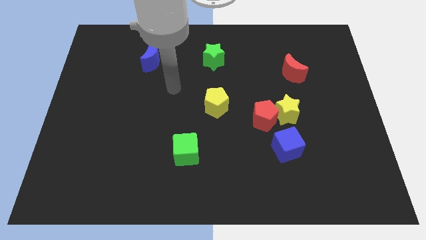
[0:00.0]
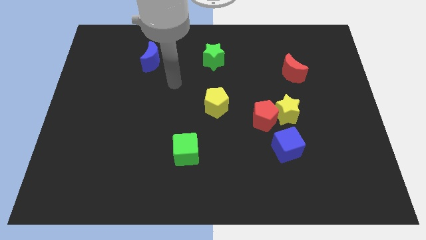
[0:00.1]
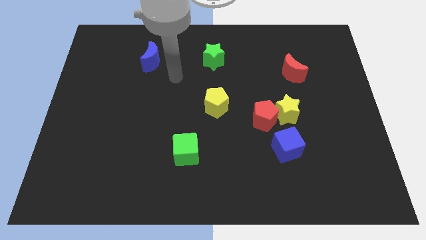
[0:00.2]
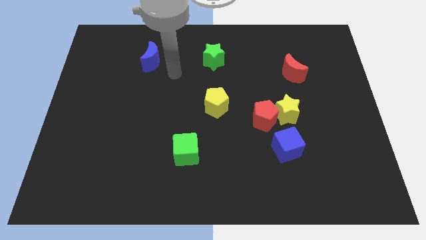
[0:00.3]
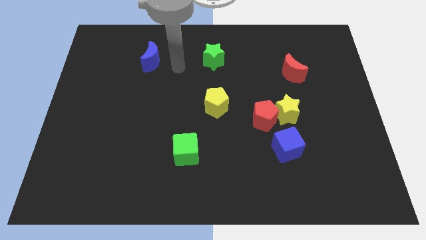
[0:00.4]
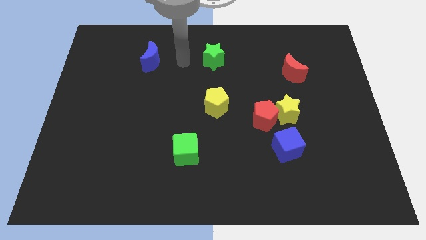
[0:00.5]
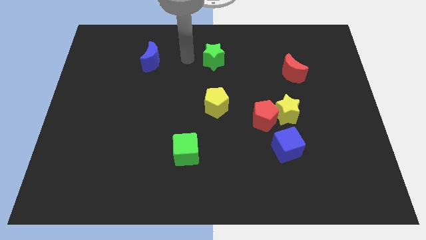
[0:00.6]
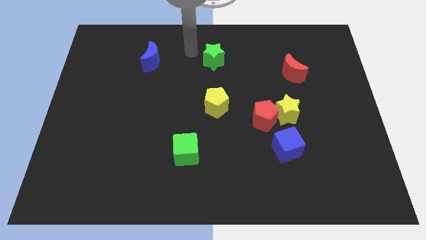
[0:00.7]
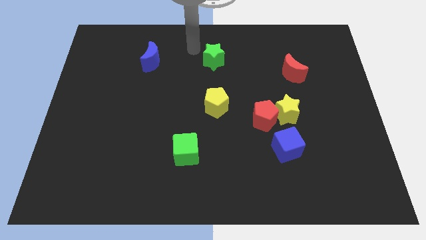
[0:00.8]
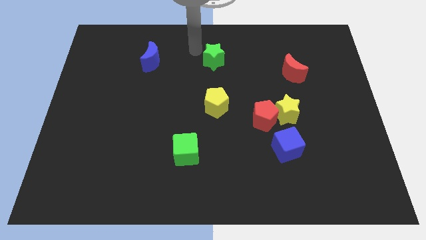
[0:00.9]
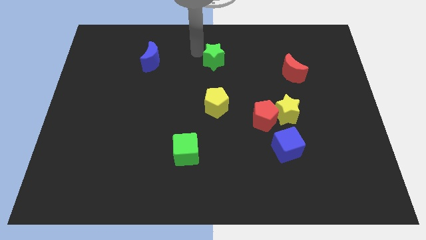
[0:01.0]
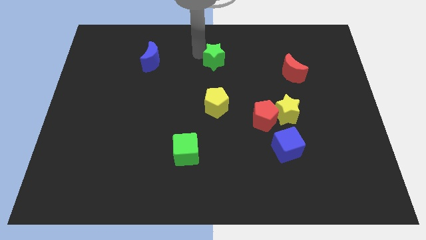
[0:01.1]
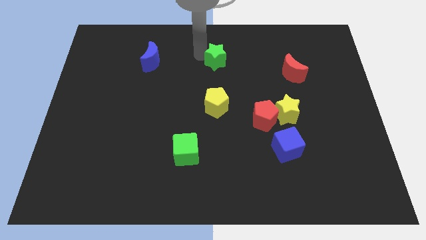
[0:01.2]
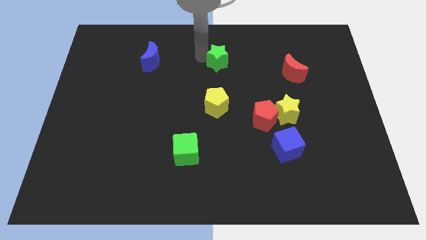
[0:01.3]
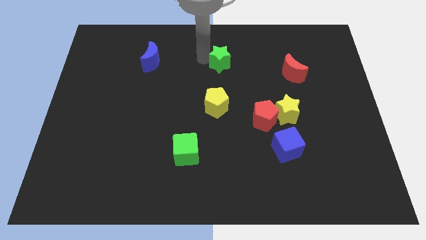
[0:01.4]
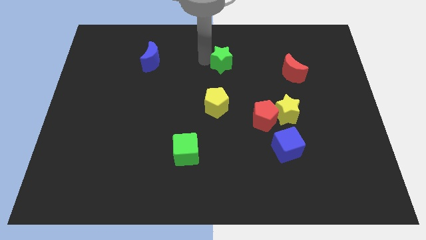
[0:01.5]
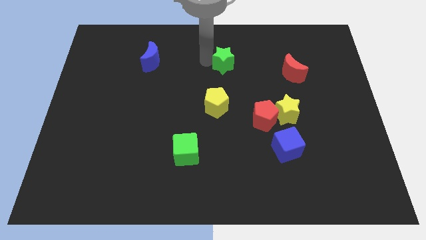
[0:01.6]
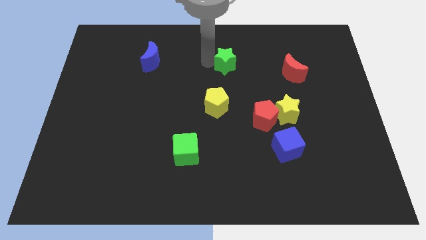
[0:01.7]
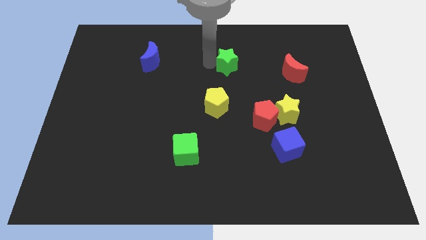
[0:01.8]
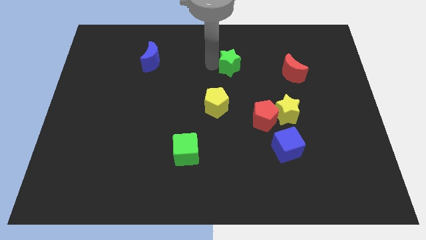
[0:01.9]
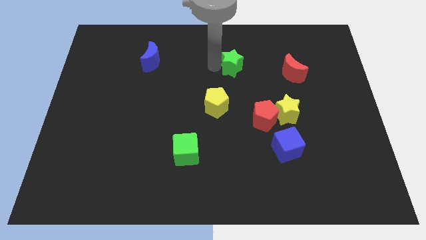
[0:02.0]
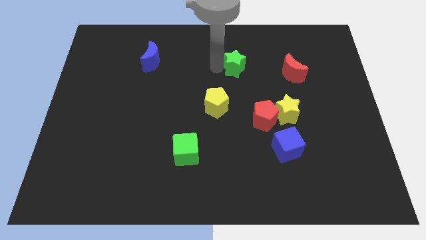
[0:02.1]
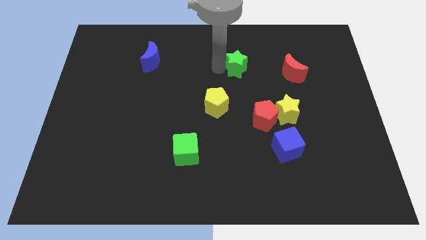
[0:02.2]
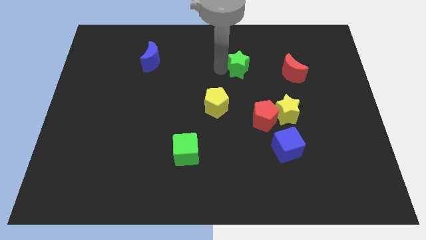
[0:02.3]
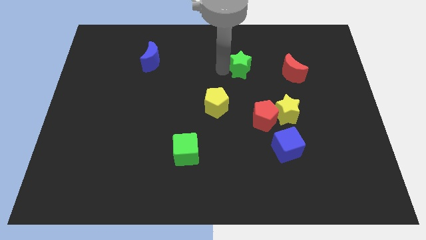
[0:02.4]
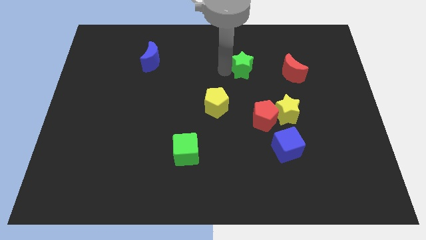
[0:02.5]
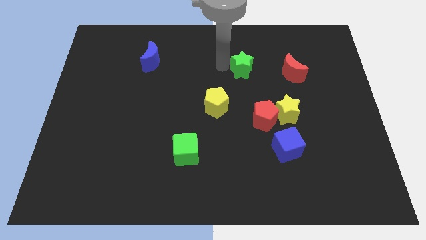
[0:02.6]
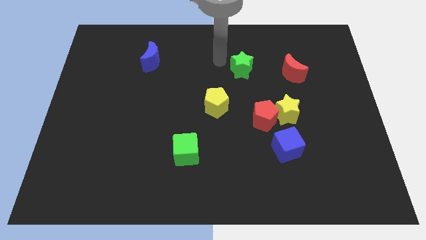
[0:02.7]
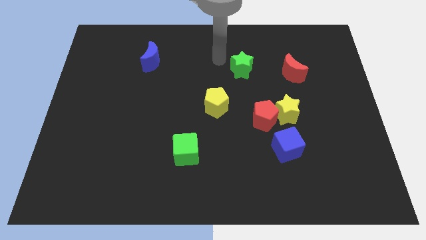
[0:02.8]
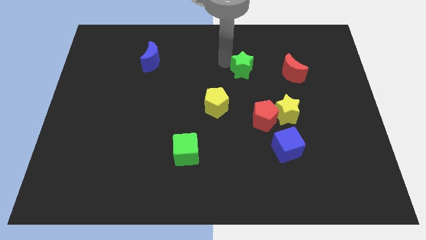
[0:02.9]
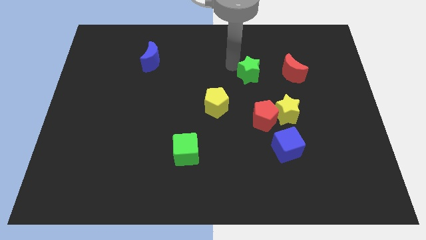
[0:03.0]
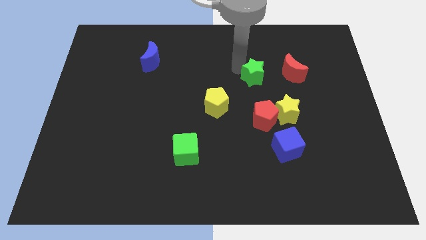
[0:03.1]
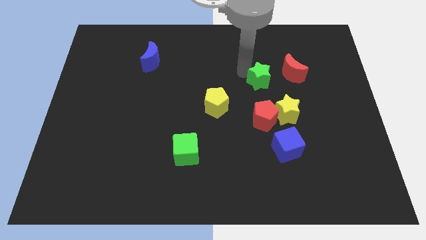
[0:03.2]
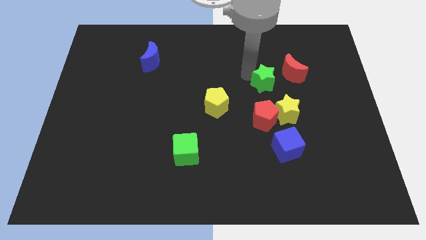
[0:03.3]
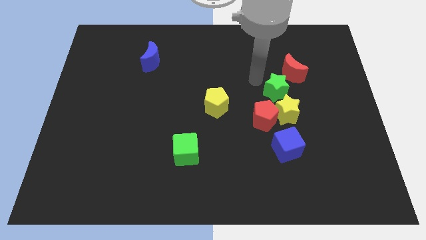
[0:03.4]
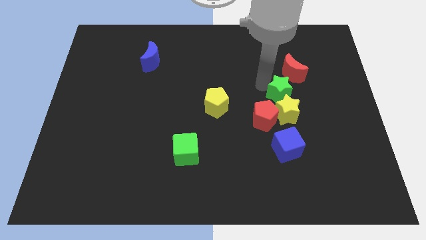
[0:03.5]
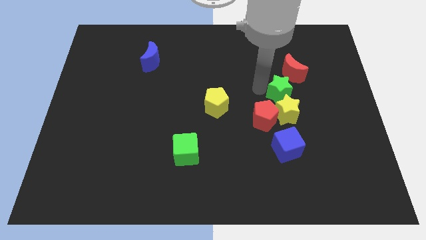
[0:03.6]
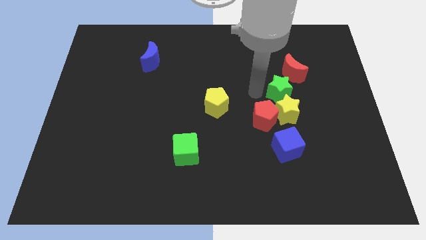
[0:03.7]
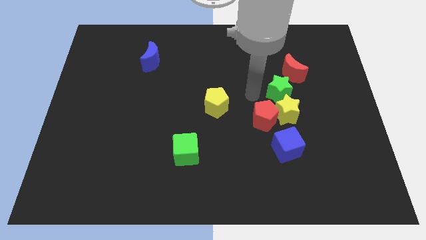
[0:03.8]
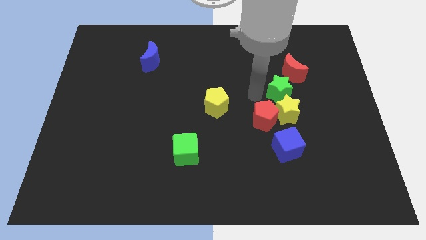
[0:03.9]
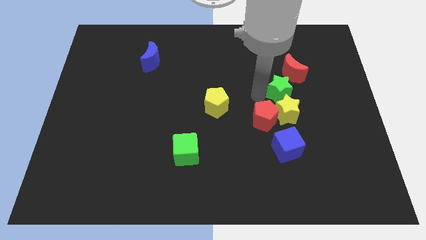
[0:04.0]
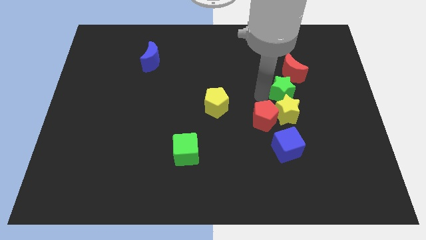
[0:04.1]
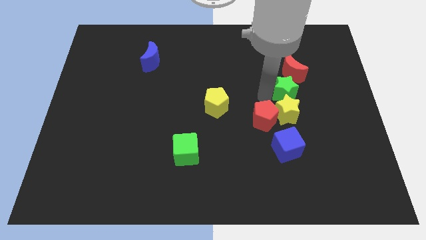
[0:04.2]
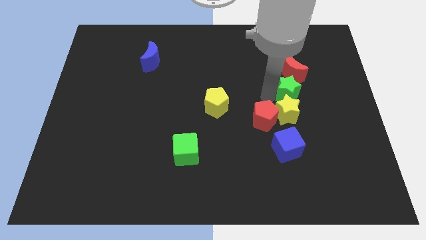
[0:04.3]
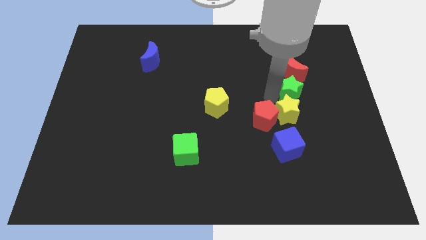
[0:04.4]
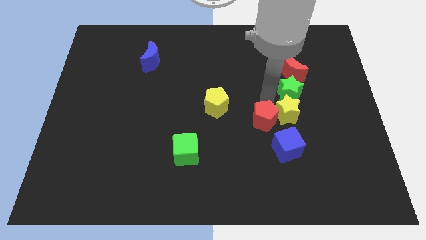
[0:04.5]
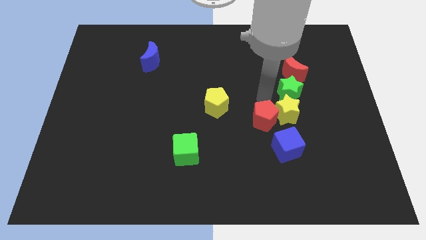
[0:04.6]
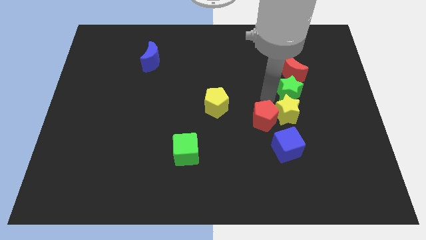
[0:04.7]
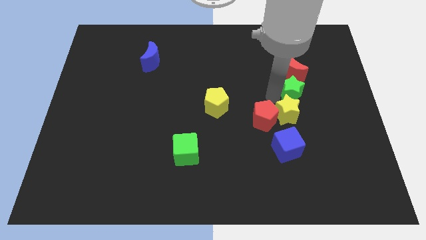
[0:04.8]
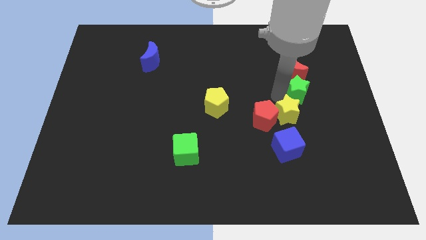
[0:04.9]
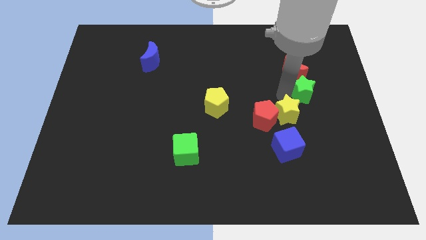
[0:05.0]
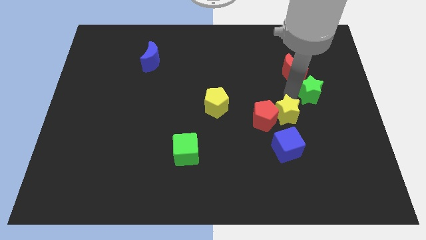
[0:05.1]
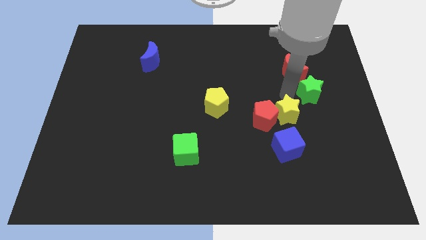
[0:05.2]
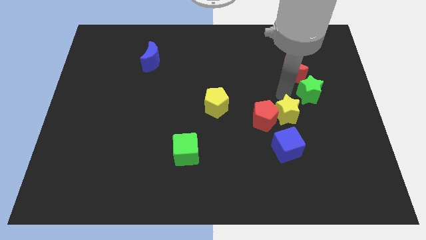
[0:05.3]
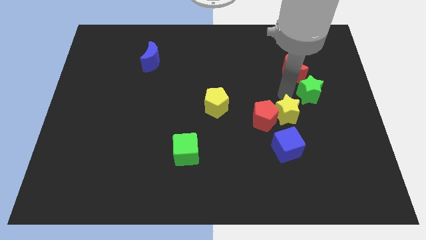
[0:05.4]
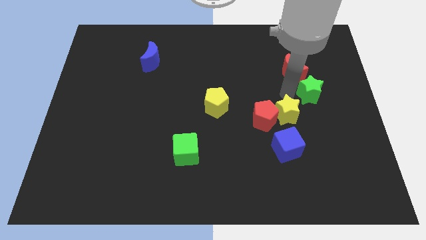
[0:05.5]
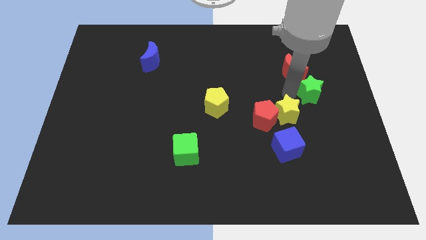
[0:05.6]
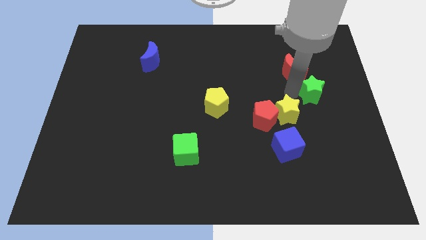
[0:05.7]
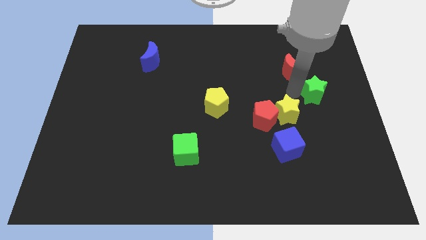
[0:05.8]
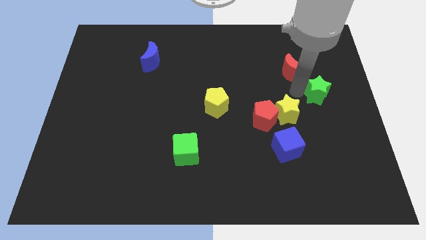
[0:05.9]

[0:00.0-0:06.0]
put the green star to the right side
